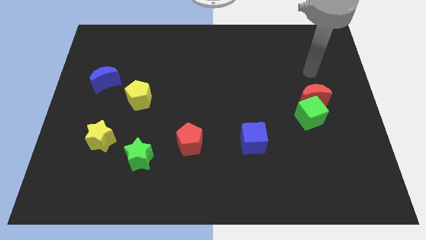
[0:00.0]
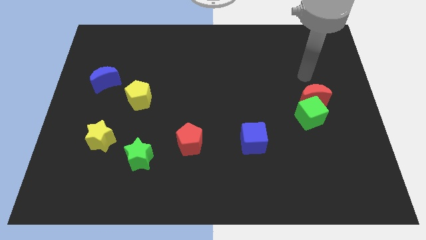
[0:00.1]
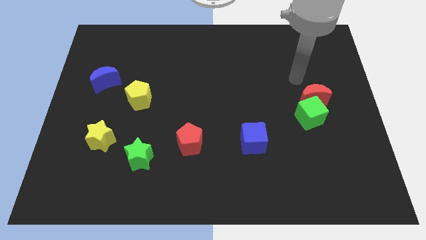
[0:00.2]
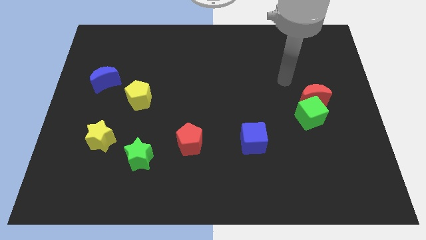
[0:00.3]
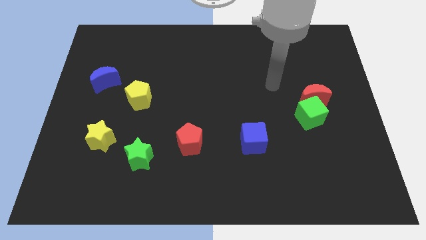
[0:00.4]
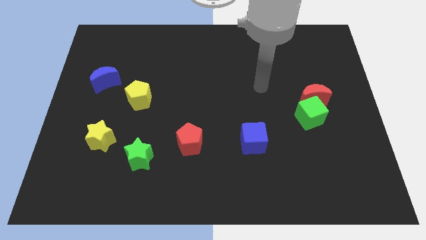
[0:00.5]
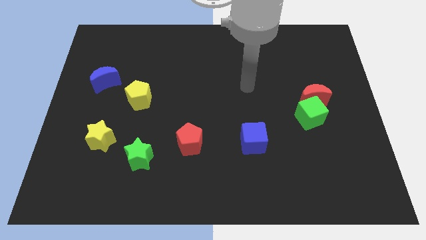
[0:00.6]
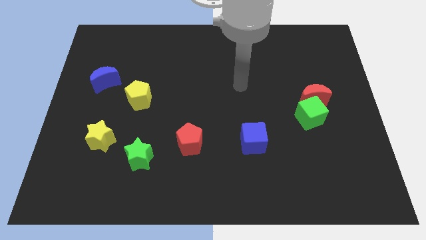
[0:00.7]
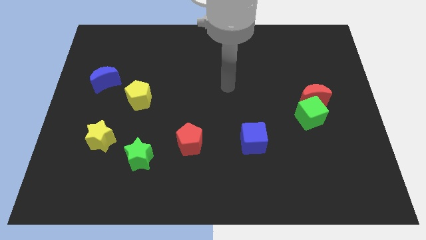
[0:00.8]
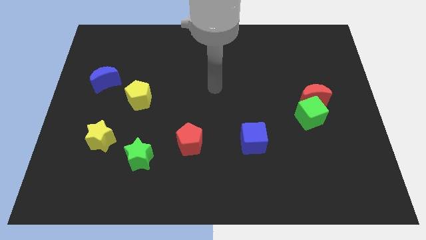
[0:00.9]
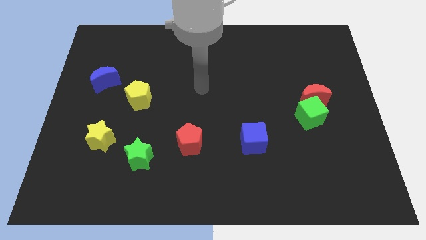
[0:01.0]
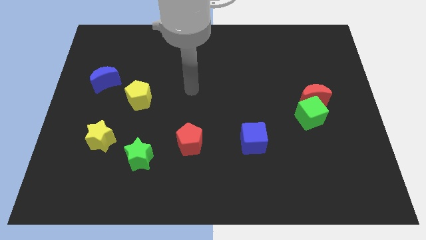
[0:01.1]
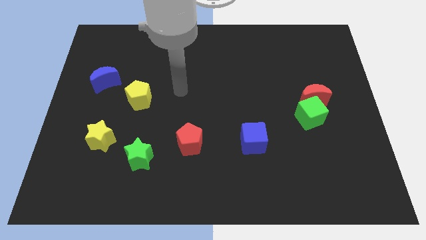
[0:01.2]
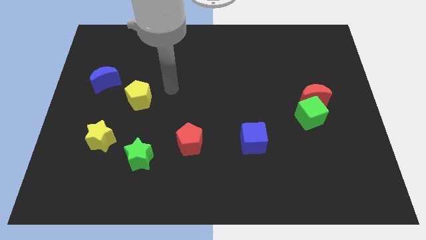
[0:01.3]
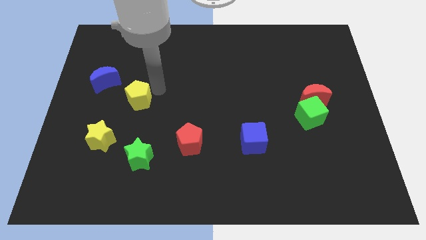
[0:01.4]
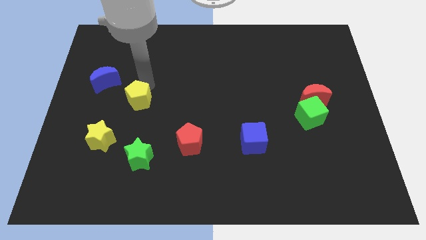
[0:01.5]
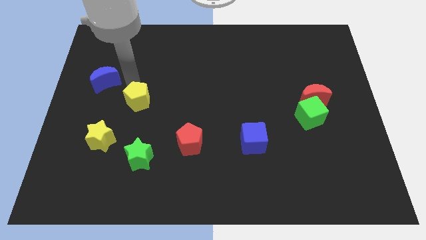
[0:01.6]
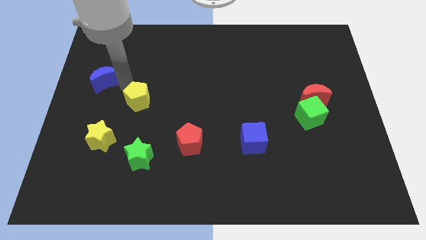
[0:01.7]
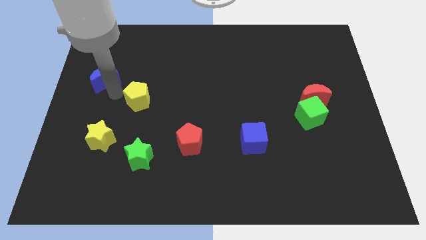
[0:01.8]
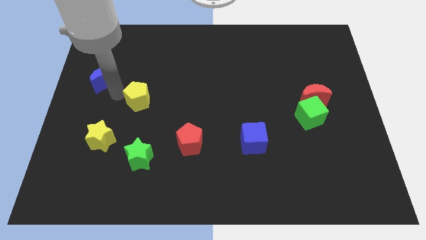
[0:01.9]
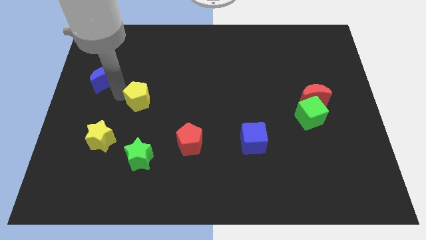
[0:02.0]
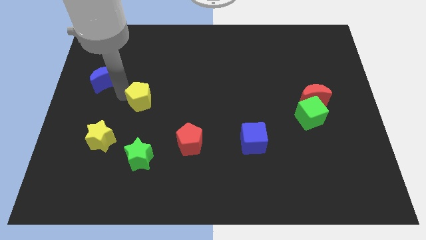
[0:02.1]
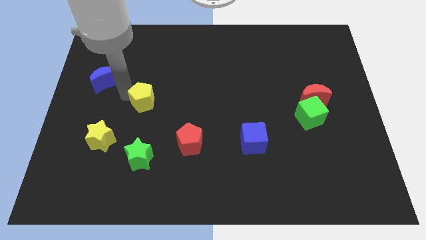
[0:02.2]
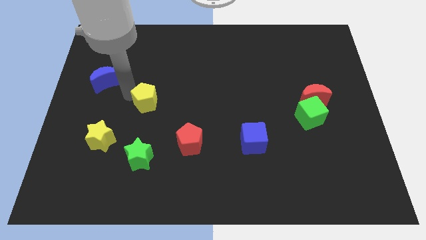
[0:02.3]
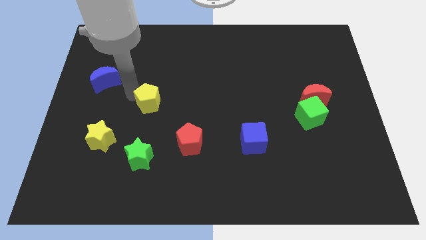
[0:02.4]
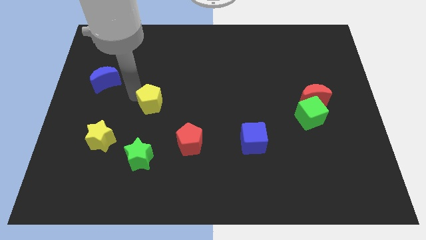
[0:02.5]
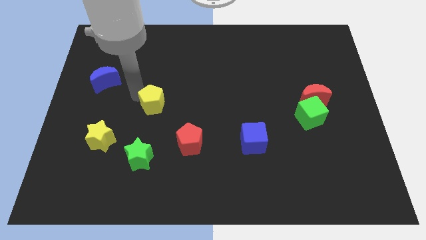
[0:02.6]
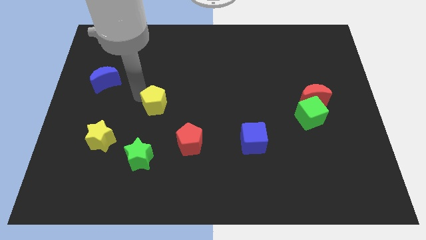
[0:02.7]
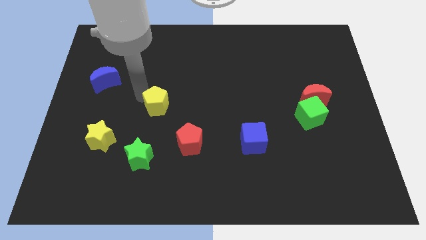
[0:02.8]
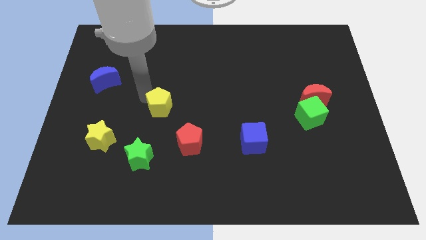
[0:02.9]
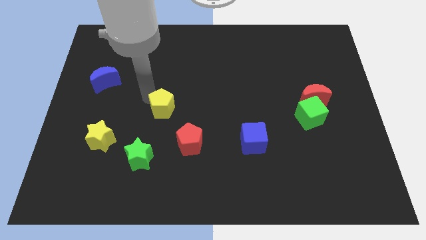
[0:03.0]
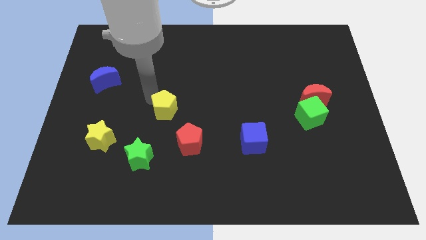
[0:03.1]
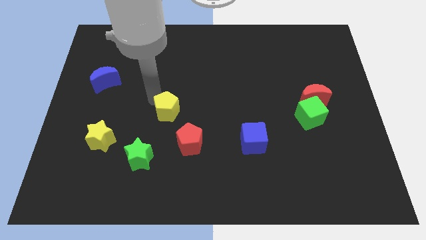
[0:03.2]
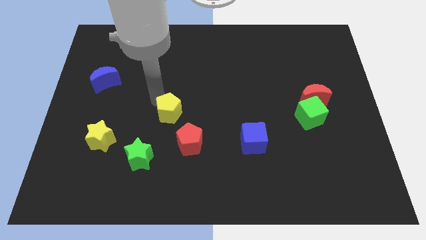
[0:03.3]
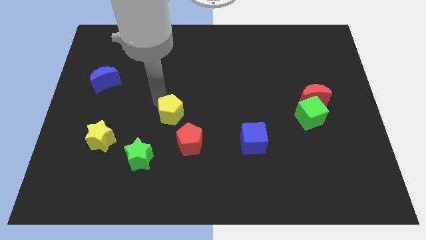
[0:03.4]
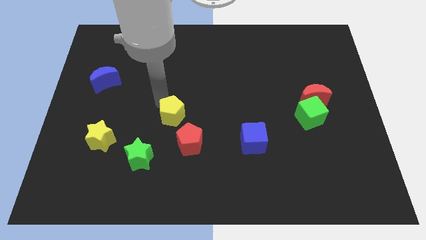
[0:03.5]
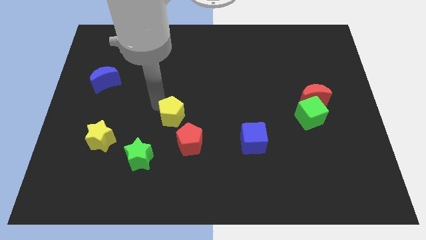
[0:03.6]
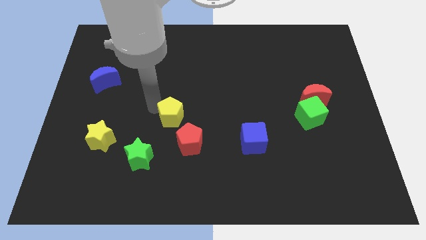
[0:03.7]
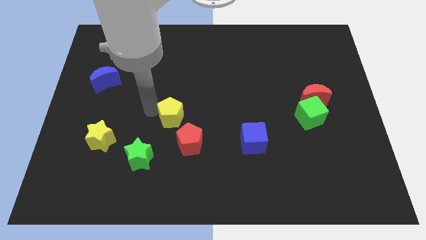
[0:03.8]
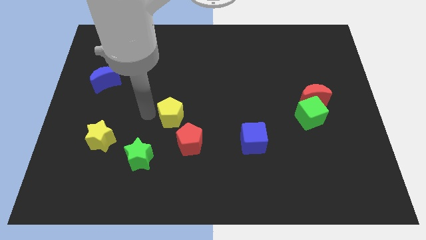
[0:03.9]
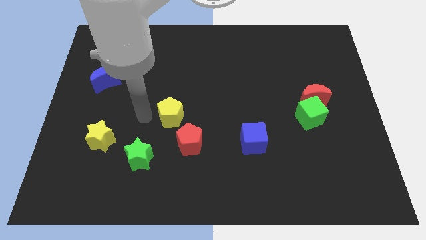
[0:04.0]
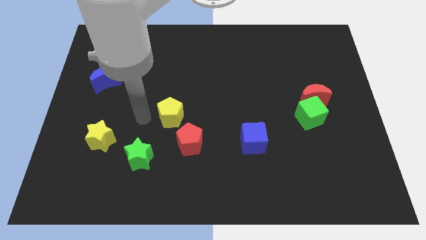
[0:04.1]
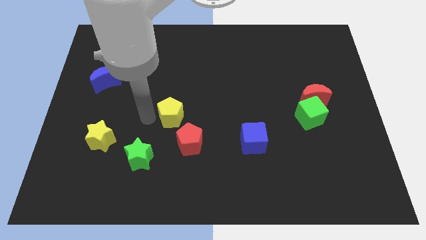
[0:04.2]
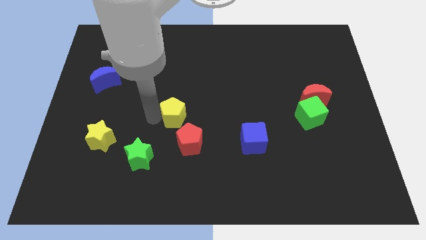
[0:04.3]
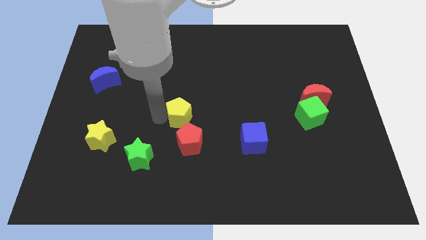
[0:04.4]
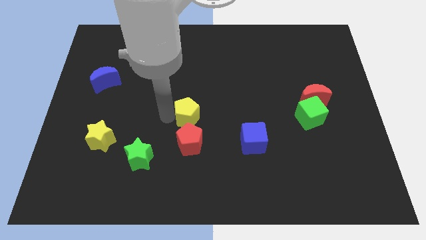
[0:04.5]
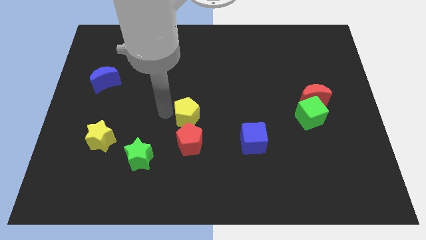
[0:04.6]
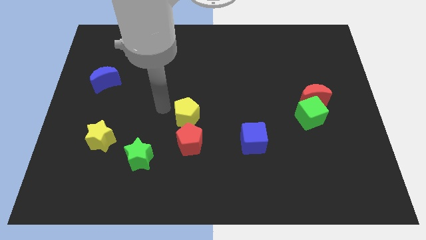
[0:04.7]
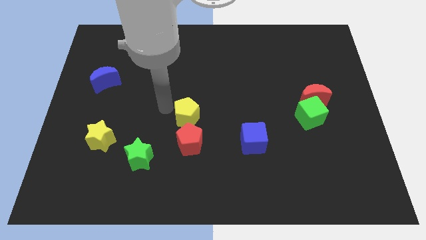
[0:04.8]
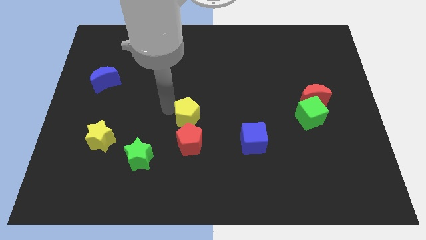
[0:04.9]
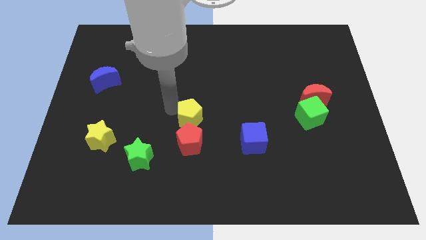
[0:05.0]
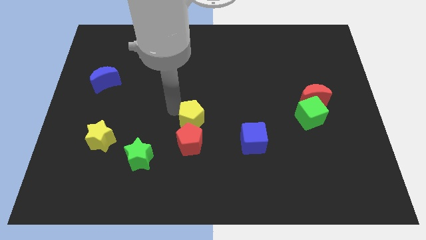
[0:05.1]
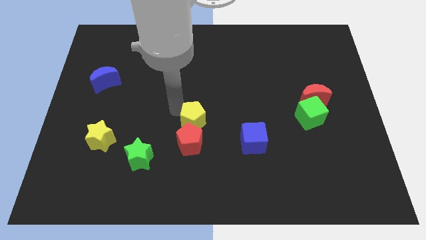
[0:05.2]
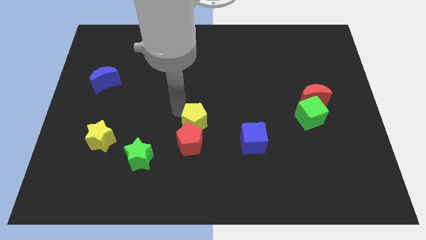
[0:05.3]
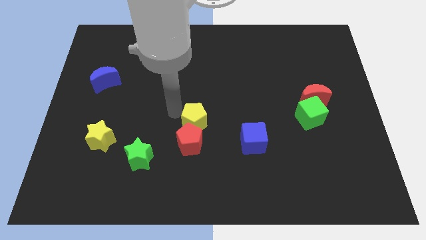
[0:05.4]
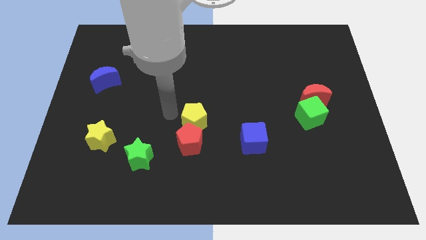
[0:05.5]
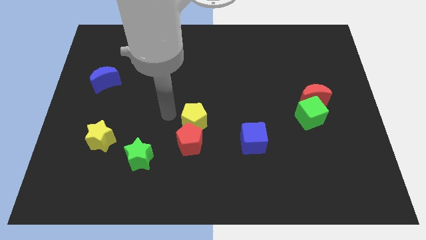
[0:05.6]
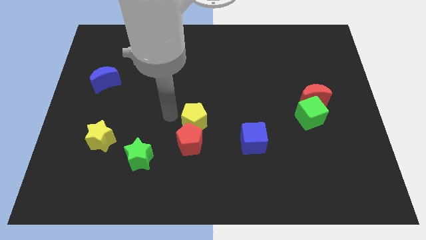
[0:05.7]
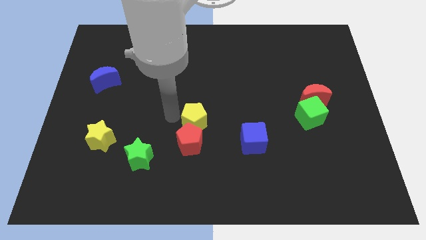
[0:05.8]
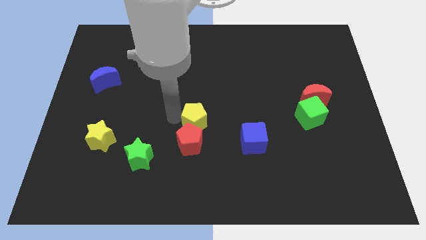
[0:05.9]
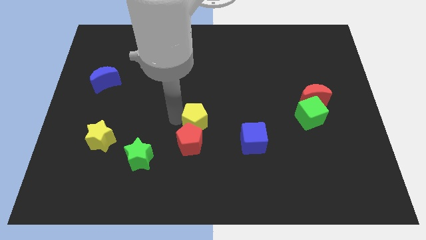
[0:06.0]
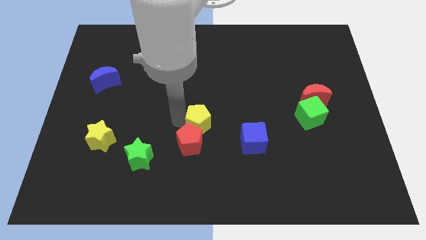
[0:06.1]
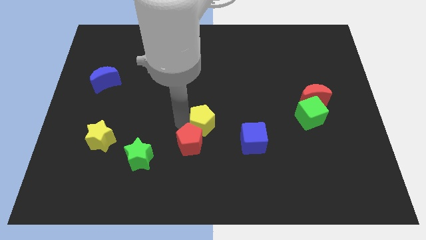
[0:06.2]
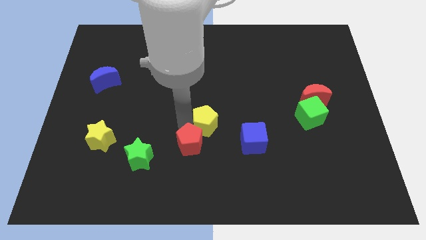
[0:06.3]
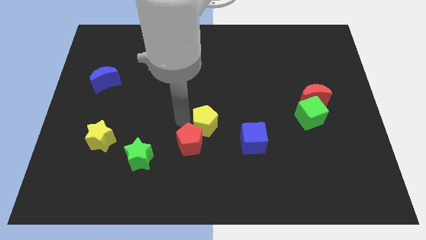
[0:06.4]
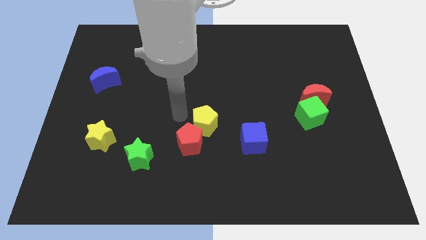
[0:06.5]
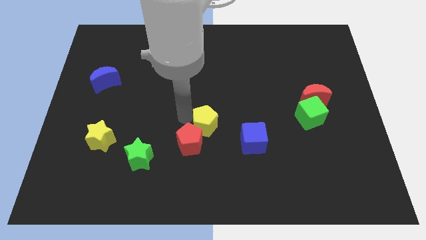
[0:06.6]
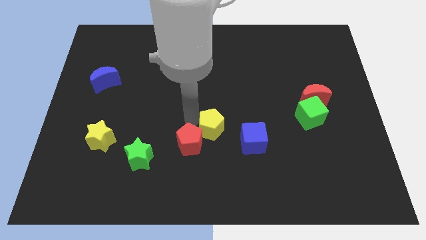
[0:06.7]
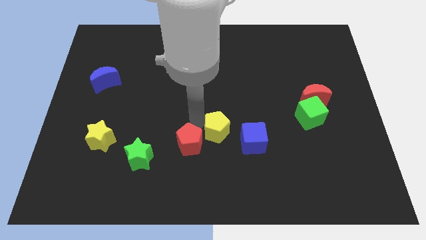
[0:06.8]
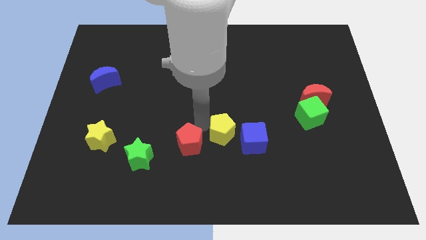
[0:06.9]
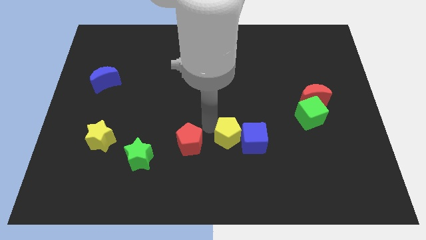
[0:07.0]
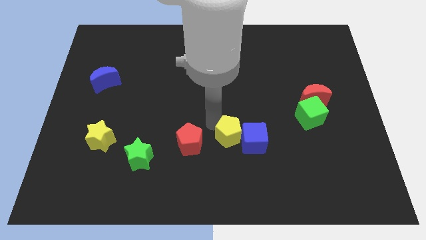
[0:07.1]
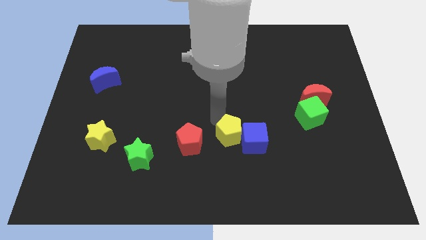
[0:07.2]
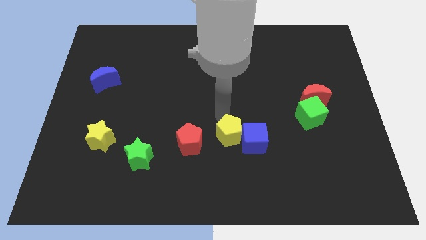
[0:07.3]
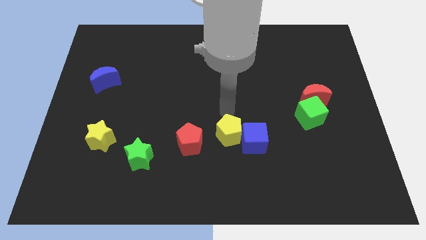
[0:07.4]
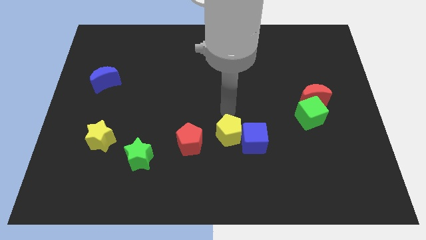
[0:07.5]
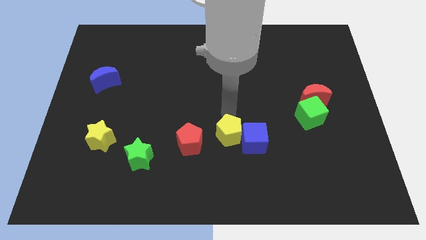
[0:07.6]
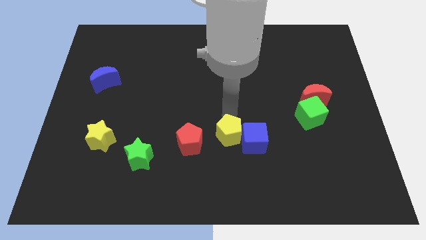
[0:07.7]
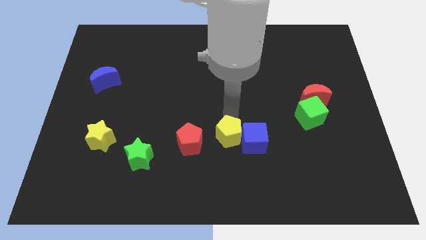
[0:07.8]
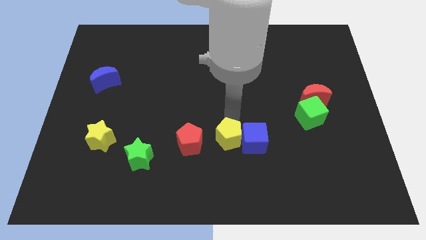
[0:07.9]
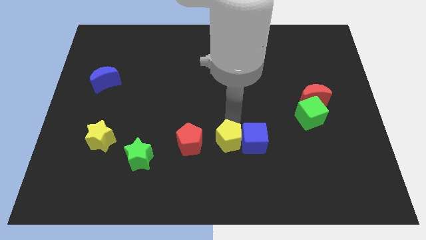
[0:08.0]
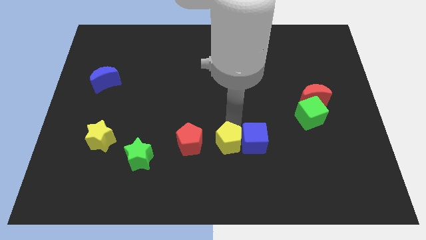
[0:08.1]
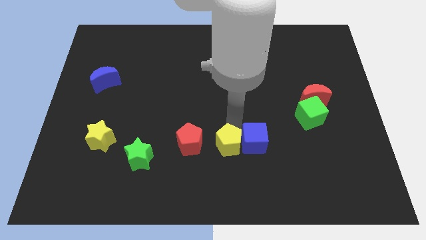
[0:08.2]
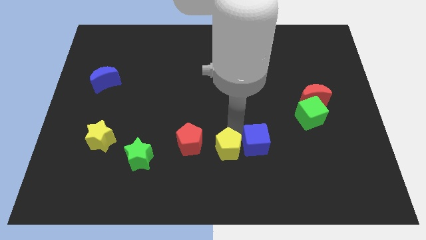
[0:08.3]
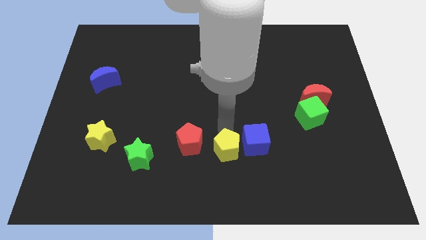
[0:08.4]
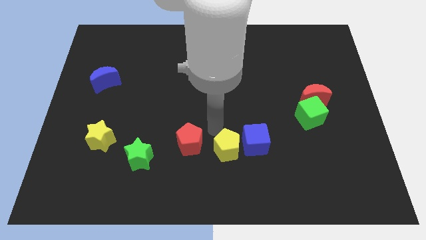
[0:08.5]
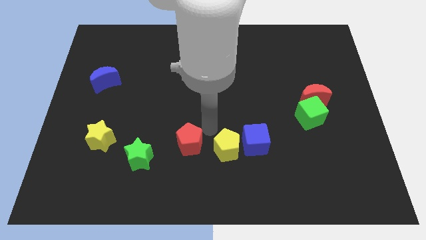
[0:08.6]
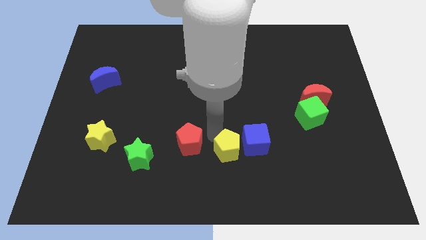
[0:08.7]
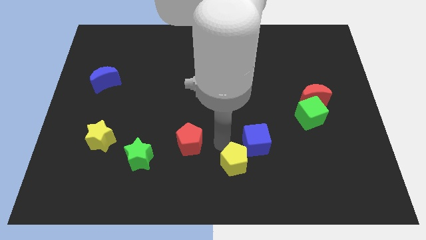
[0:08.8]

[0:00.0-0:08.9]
move the yellow pentagon below the blue cube
